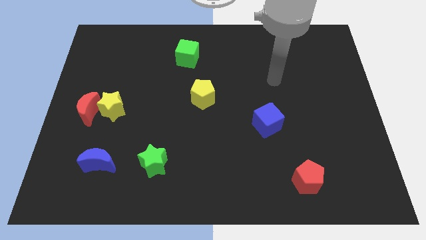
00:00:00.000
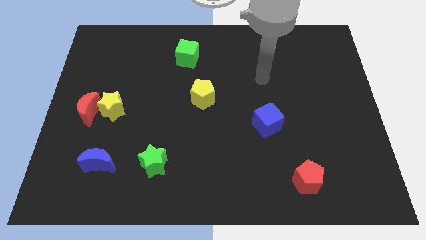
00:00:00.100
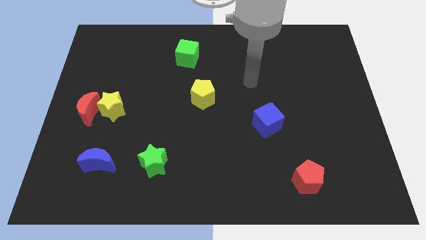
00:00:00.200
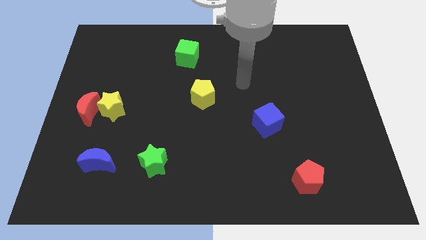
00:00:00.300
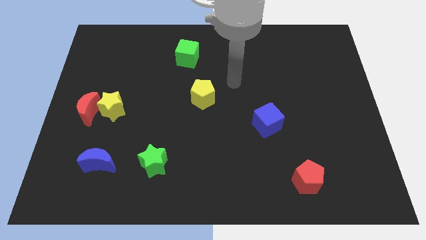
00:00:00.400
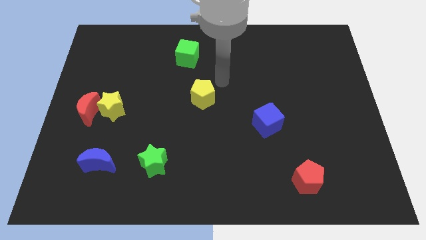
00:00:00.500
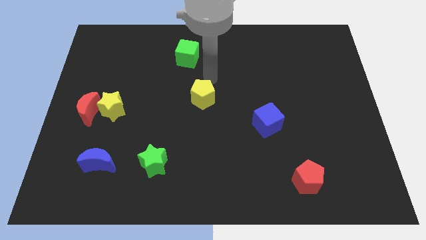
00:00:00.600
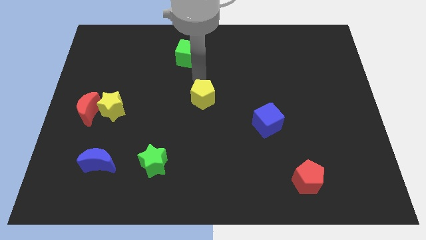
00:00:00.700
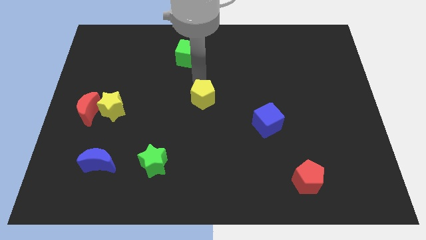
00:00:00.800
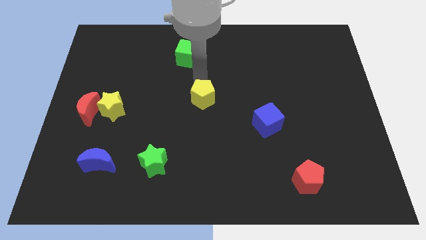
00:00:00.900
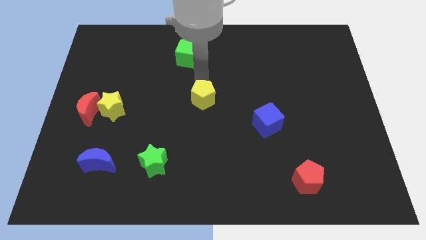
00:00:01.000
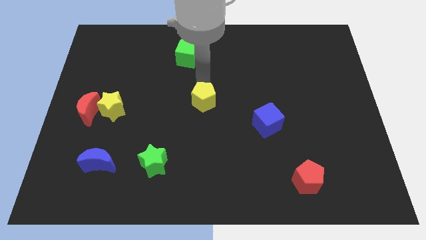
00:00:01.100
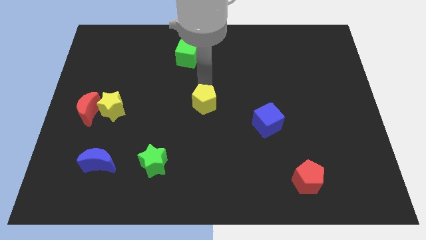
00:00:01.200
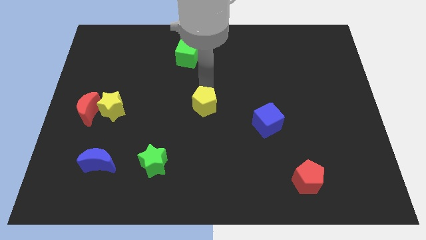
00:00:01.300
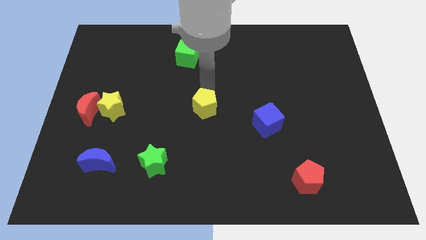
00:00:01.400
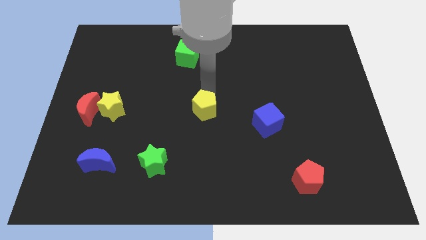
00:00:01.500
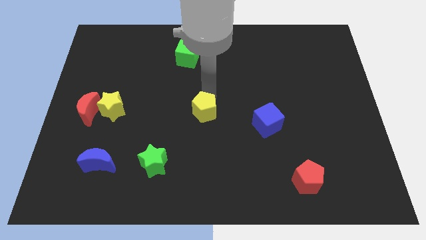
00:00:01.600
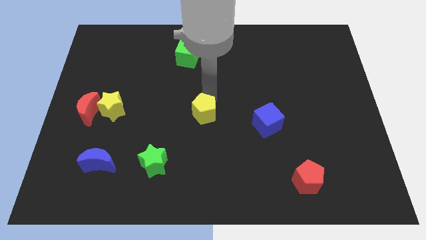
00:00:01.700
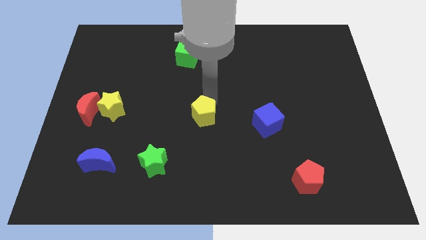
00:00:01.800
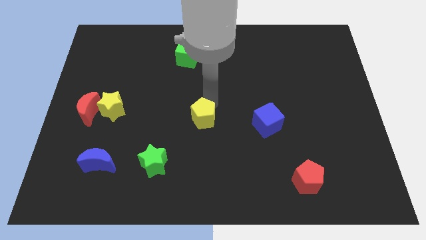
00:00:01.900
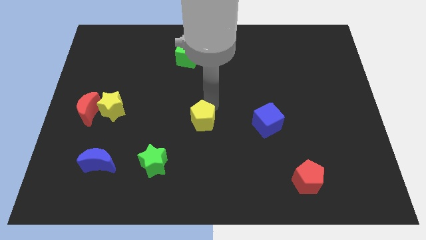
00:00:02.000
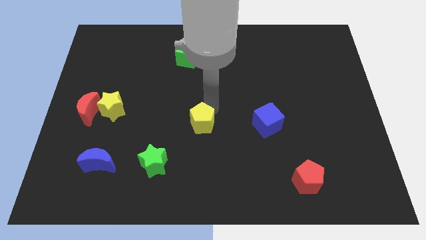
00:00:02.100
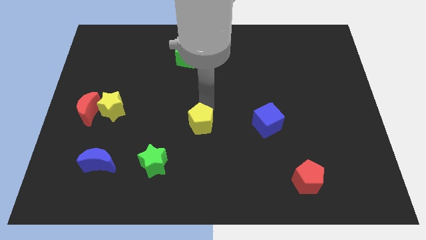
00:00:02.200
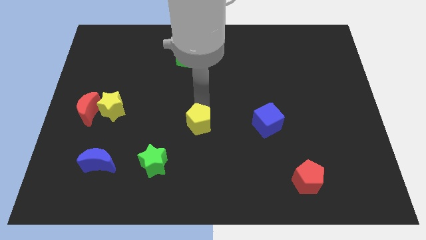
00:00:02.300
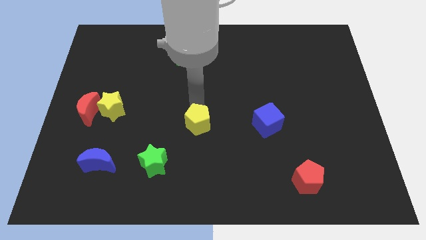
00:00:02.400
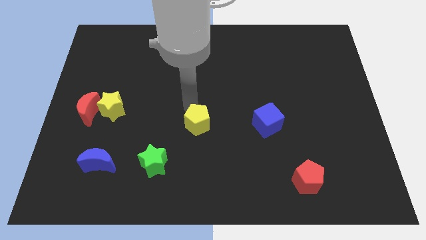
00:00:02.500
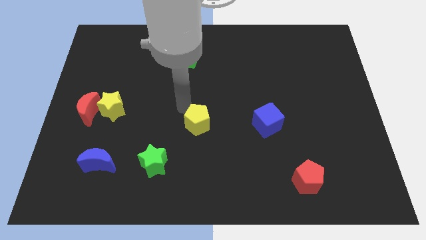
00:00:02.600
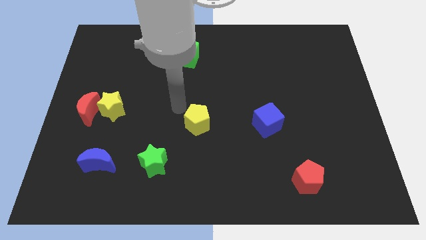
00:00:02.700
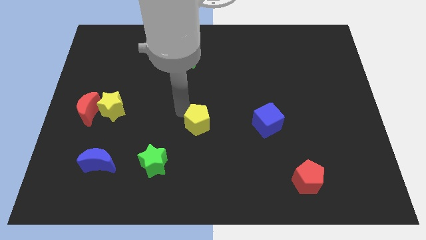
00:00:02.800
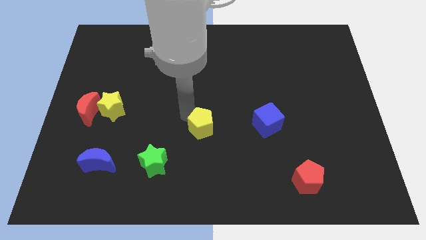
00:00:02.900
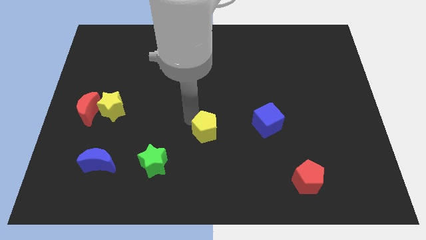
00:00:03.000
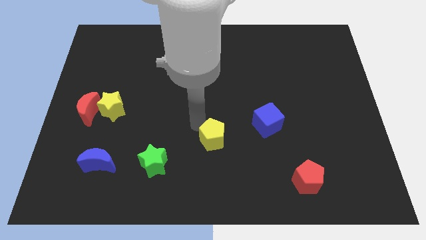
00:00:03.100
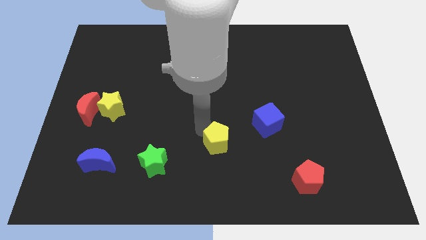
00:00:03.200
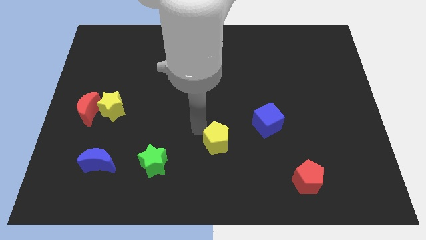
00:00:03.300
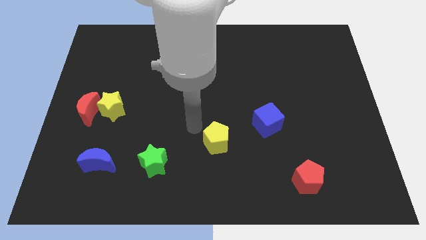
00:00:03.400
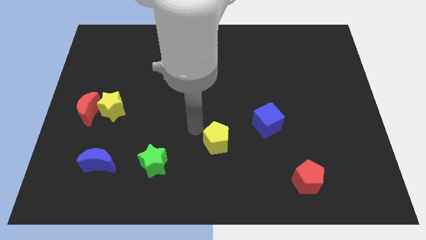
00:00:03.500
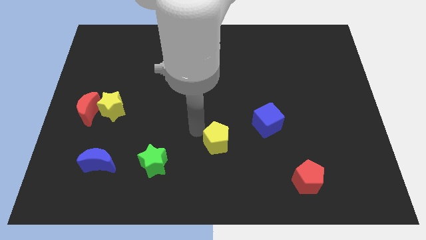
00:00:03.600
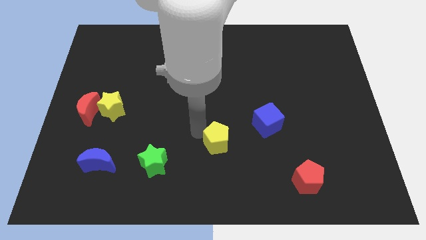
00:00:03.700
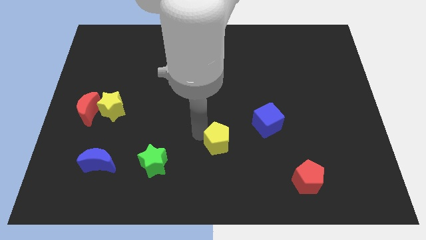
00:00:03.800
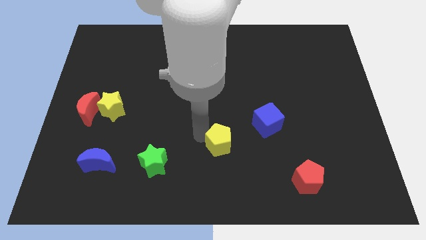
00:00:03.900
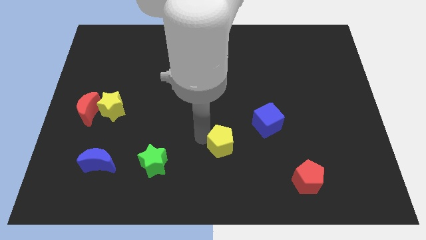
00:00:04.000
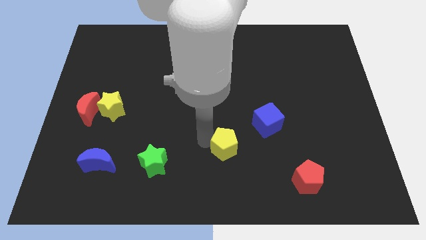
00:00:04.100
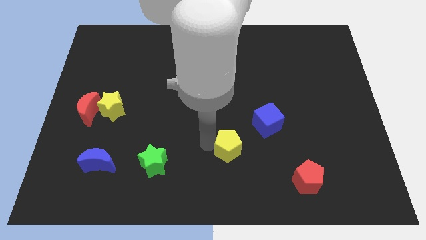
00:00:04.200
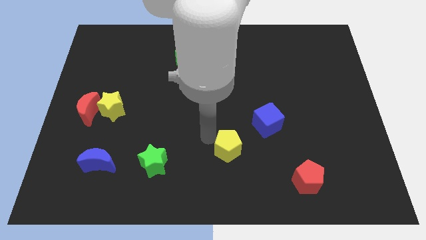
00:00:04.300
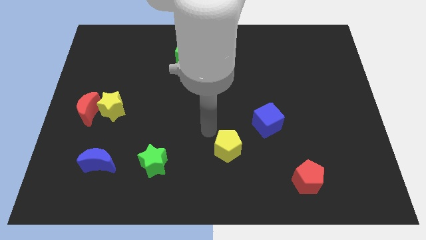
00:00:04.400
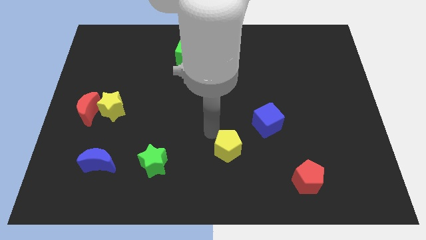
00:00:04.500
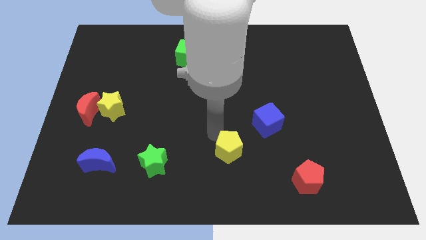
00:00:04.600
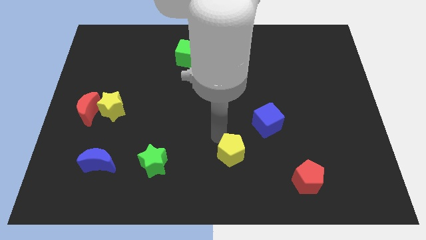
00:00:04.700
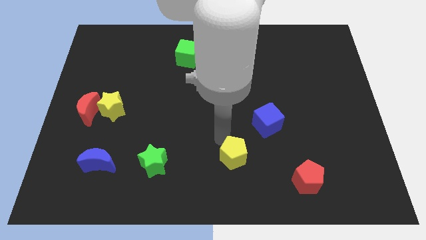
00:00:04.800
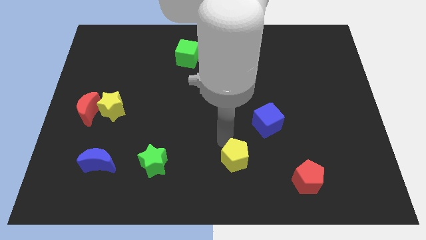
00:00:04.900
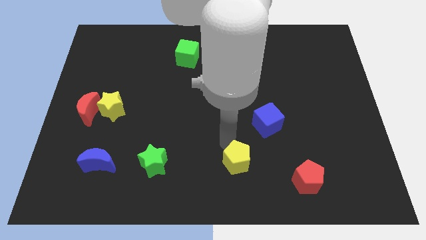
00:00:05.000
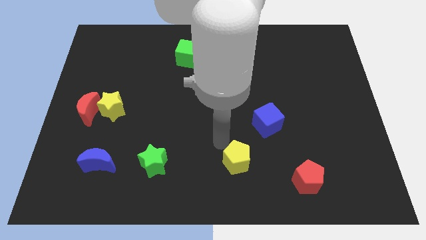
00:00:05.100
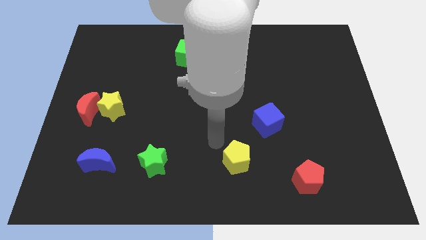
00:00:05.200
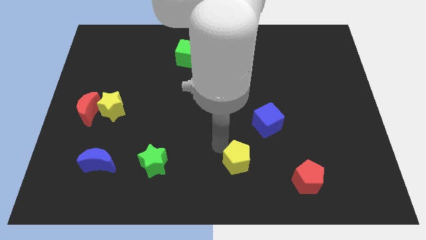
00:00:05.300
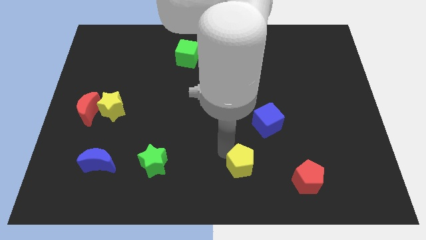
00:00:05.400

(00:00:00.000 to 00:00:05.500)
slide the yellow pentagon just left of the red pentagon

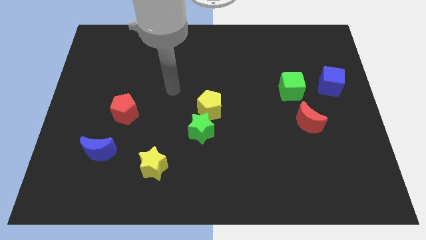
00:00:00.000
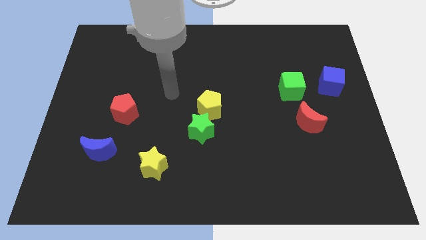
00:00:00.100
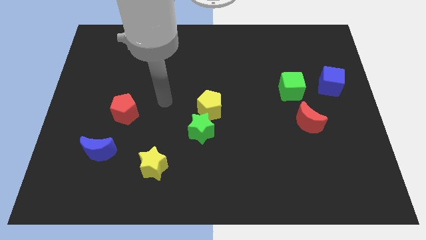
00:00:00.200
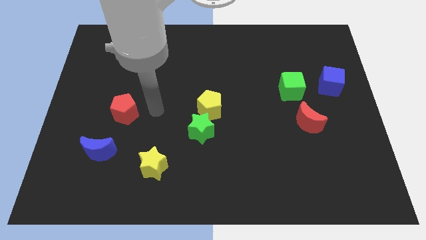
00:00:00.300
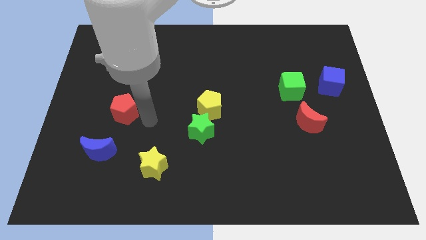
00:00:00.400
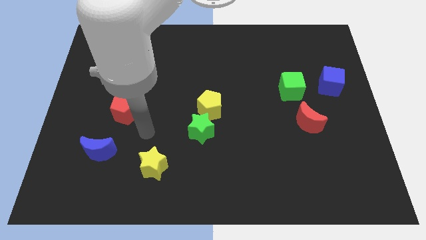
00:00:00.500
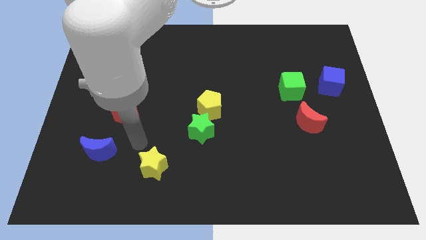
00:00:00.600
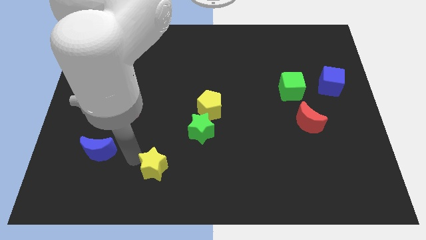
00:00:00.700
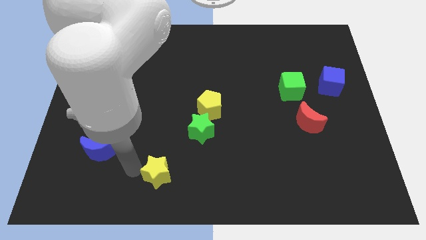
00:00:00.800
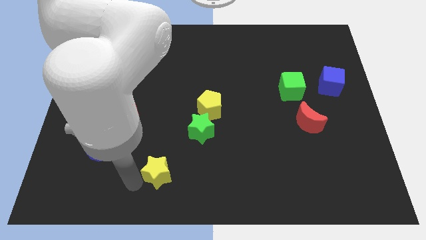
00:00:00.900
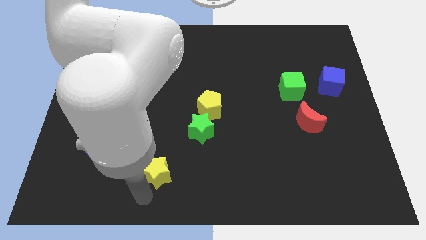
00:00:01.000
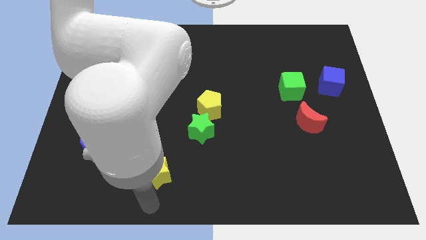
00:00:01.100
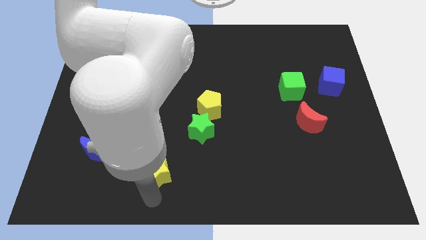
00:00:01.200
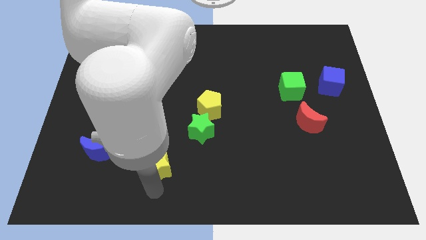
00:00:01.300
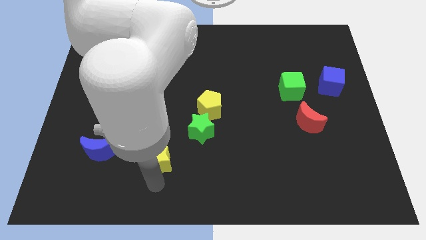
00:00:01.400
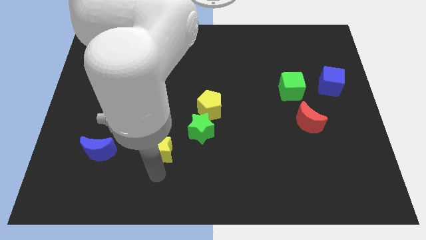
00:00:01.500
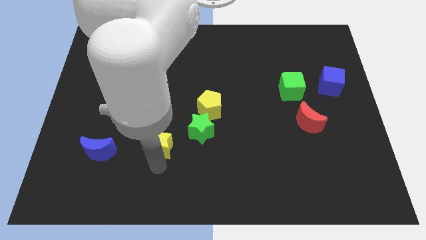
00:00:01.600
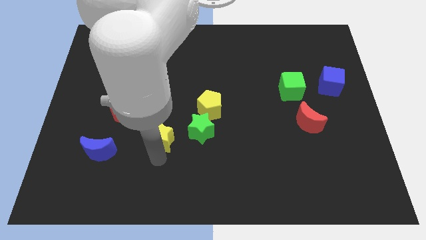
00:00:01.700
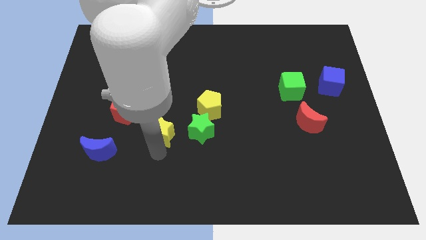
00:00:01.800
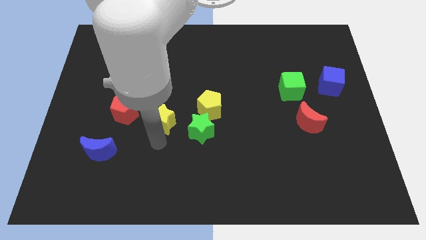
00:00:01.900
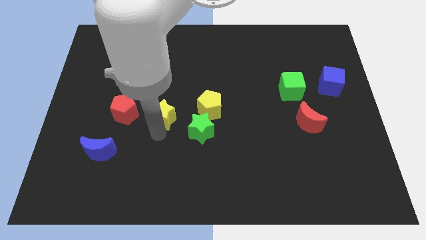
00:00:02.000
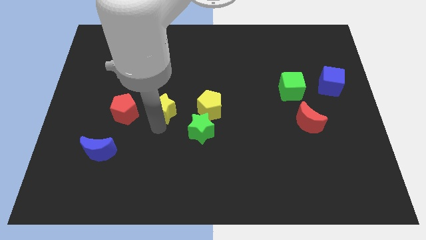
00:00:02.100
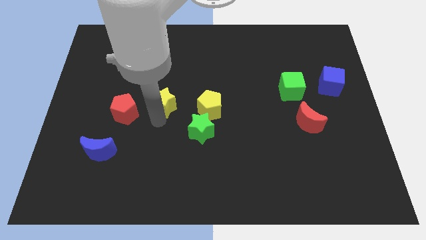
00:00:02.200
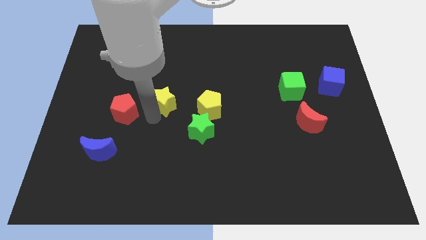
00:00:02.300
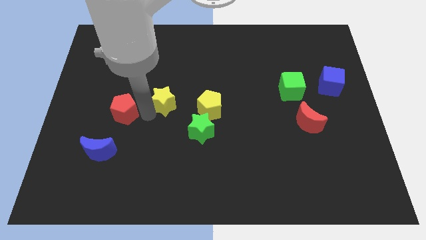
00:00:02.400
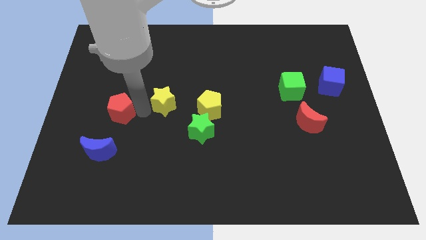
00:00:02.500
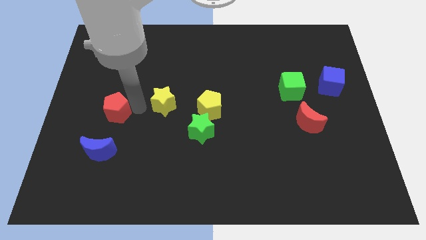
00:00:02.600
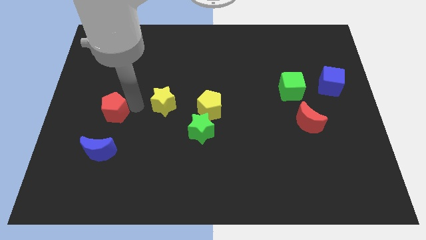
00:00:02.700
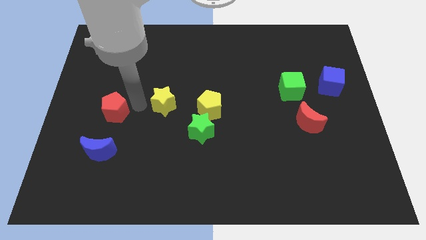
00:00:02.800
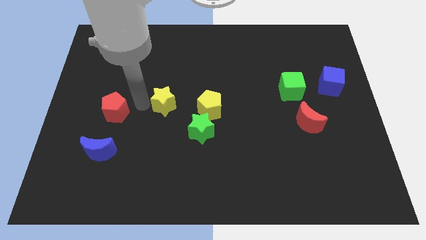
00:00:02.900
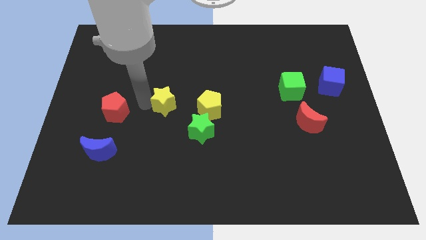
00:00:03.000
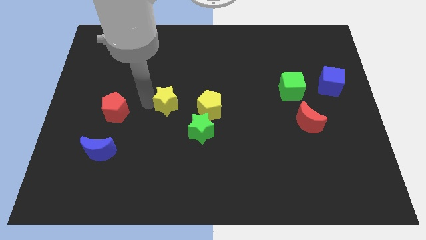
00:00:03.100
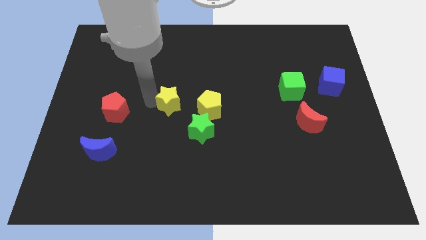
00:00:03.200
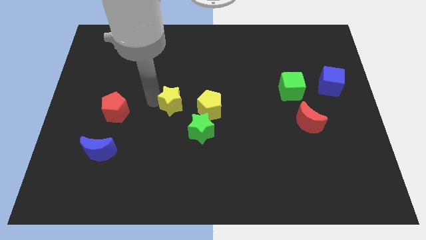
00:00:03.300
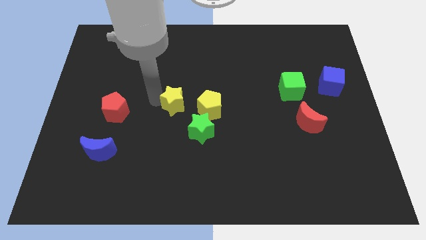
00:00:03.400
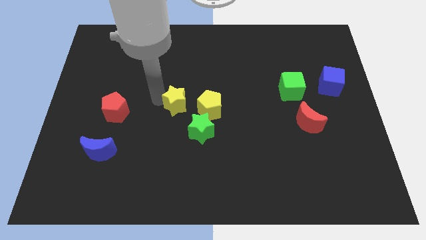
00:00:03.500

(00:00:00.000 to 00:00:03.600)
push the yellow star to the top left of the yellow pentagon
